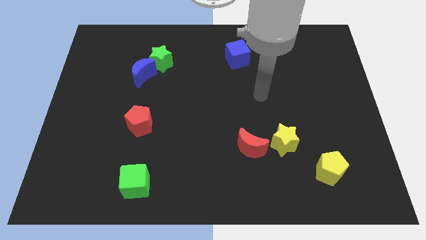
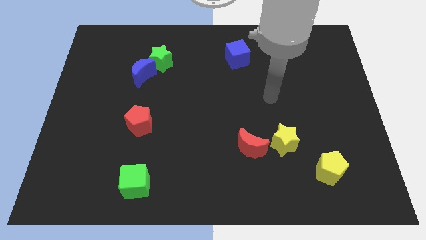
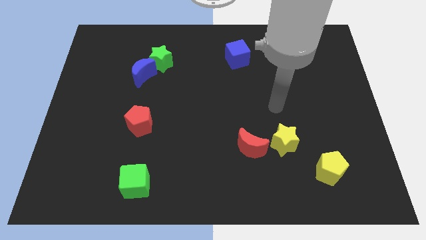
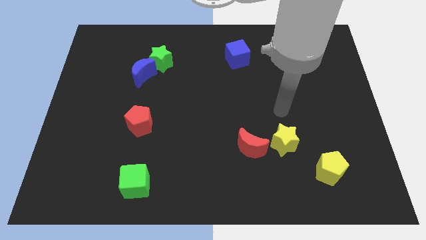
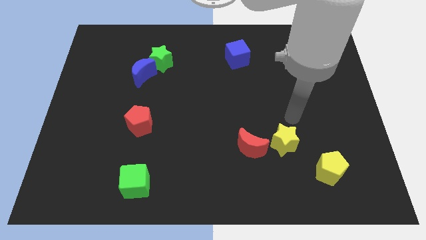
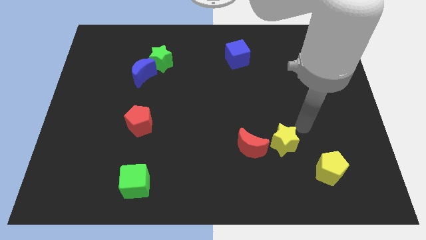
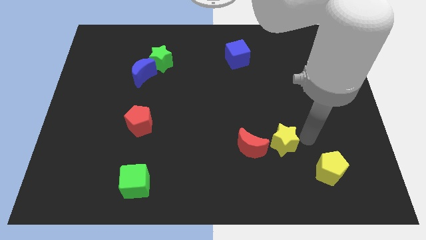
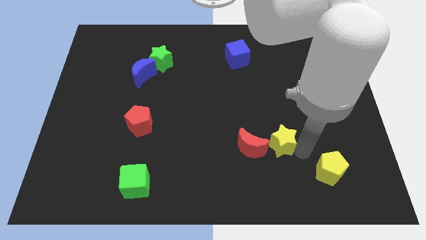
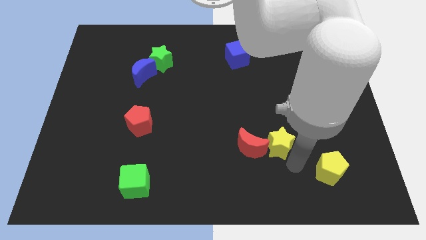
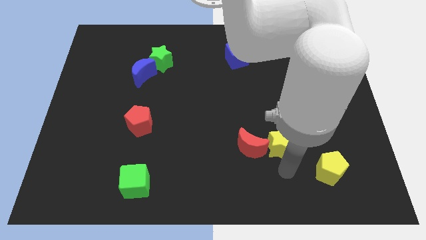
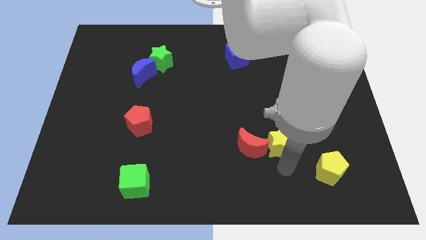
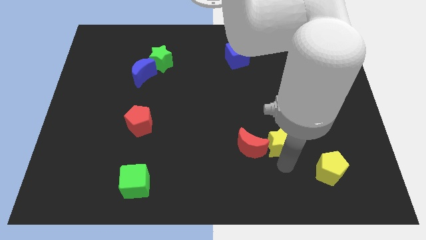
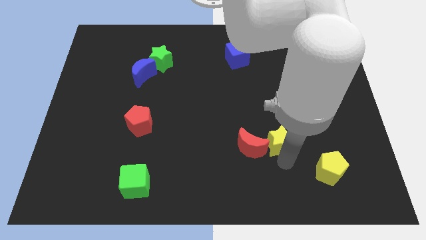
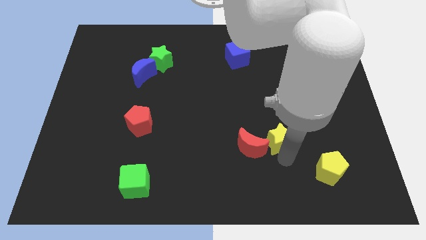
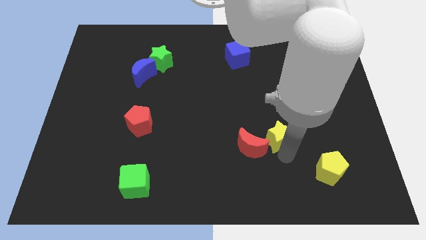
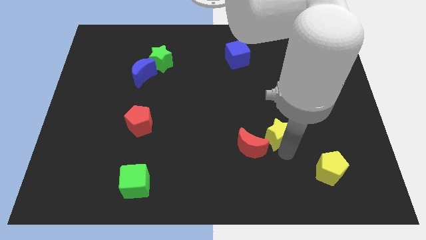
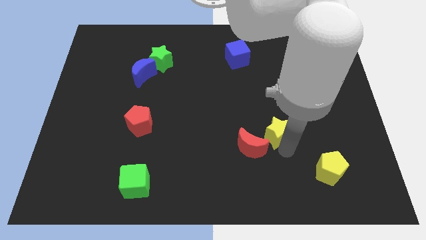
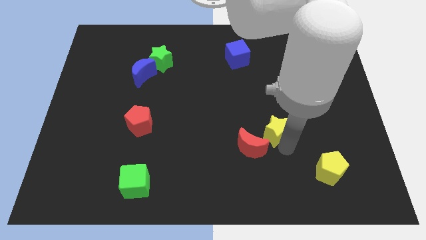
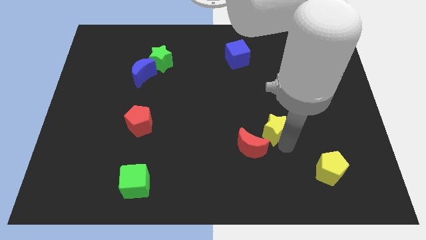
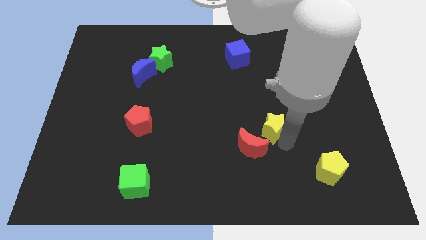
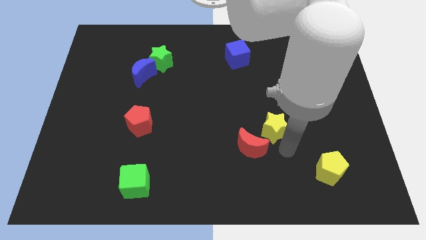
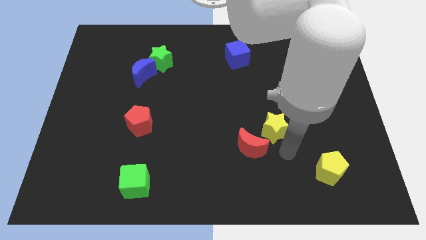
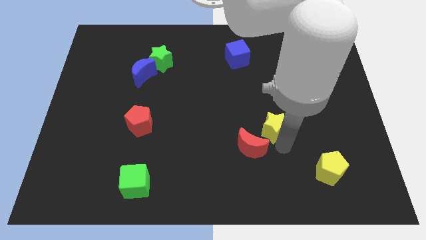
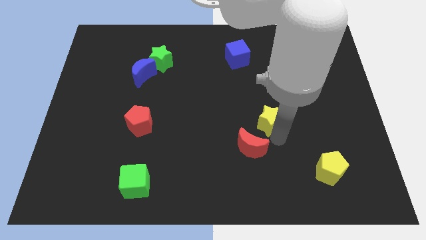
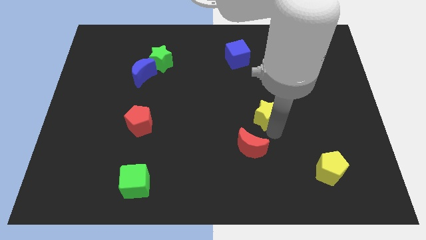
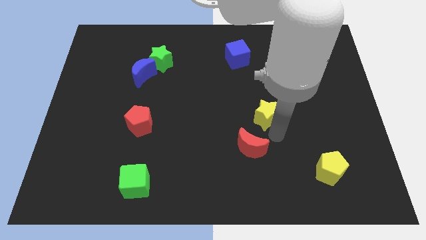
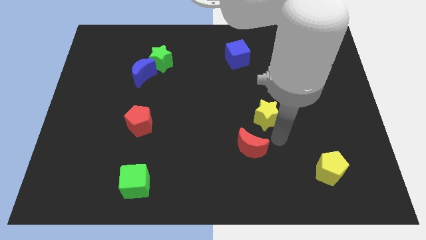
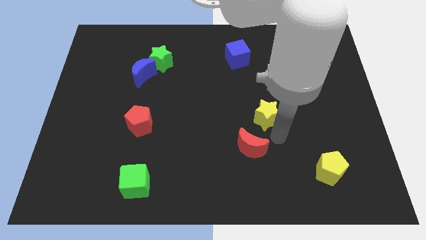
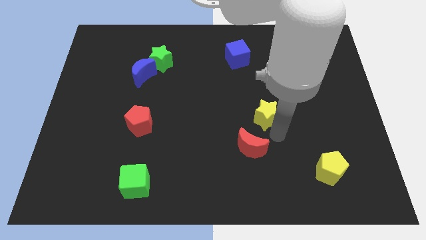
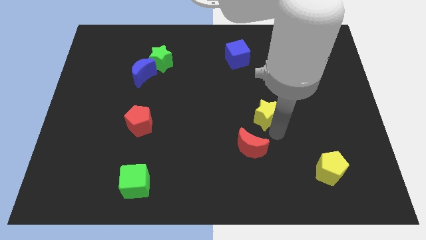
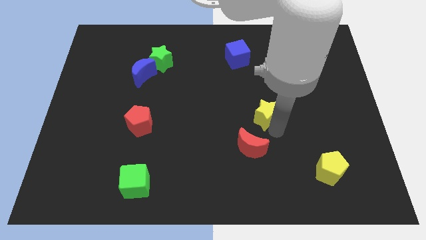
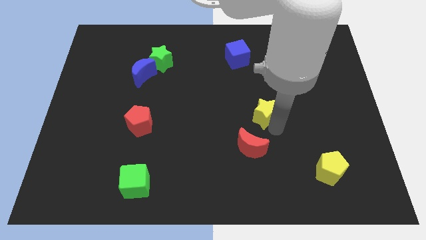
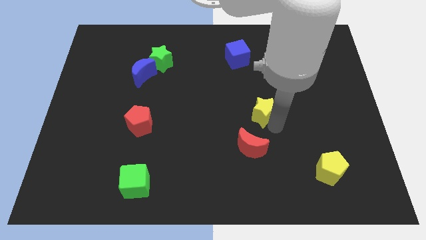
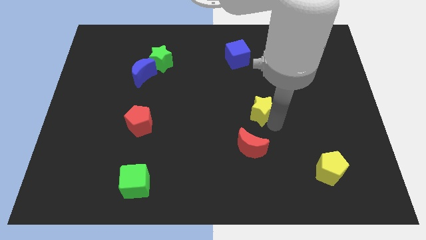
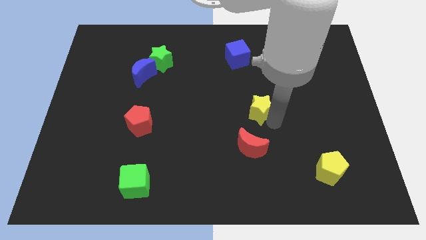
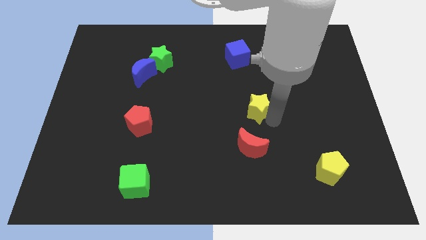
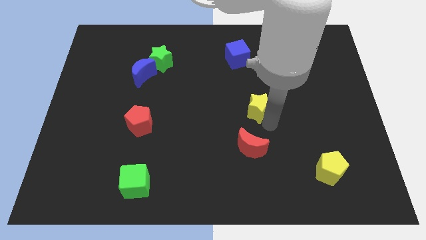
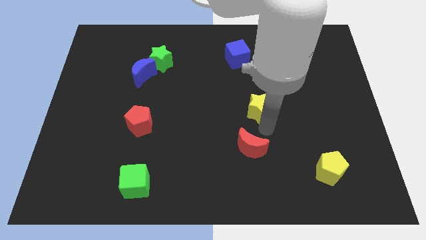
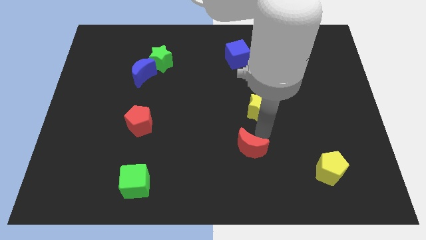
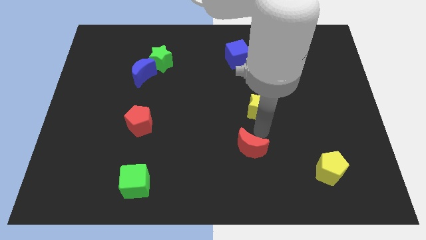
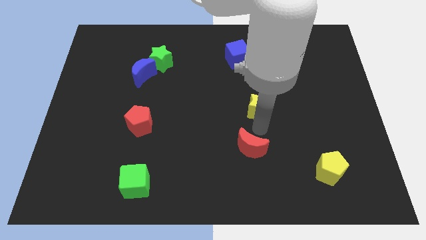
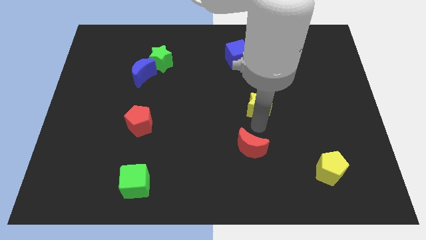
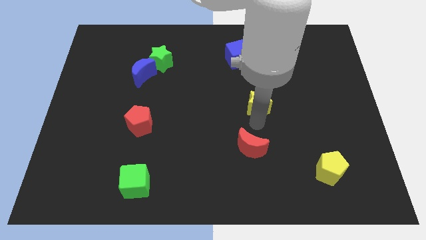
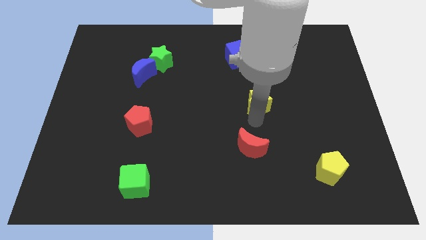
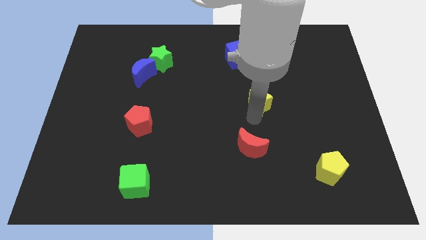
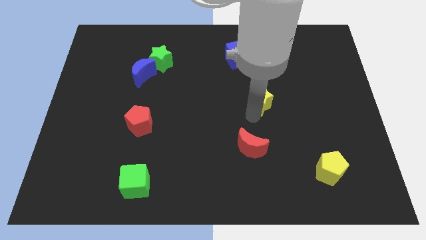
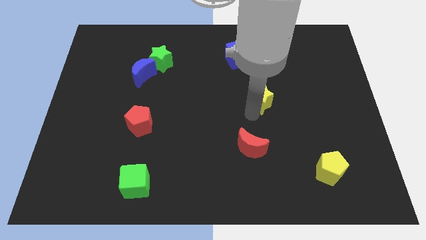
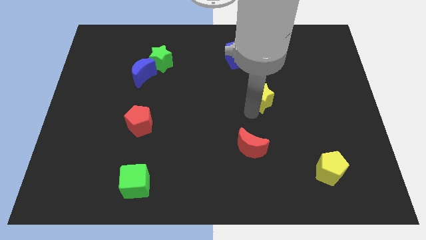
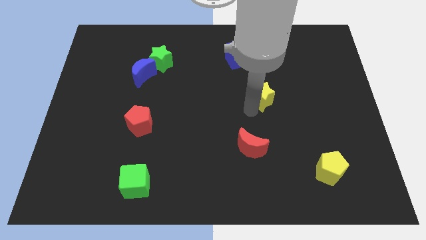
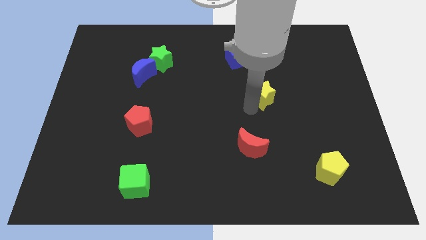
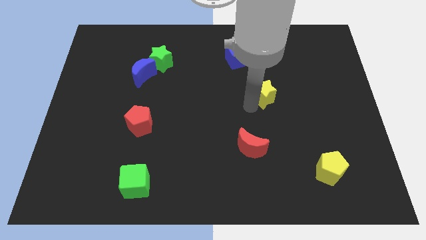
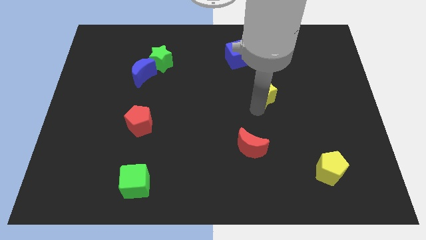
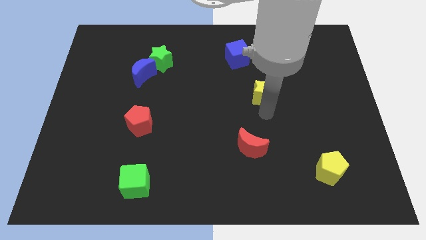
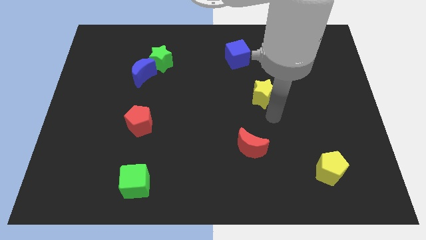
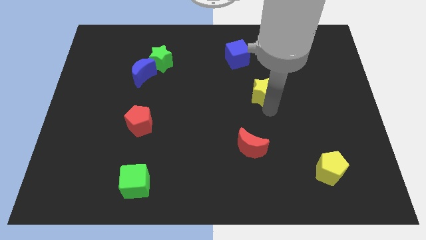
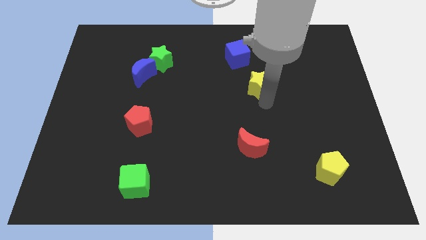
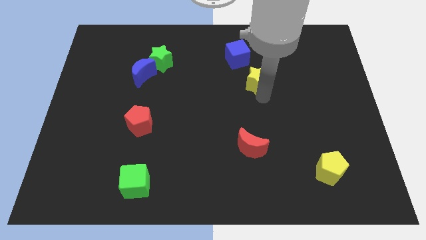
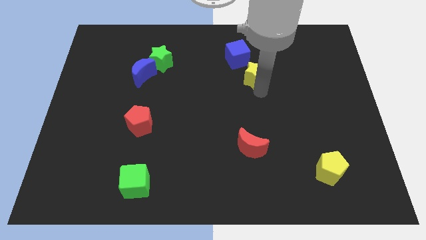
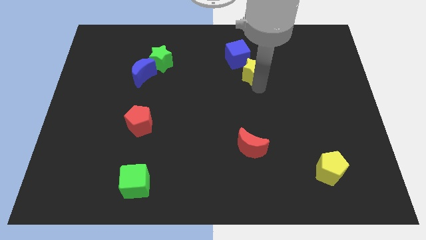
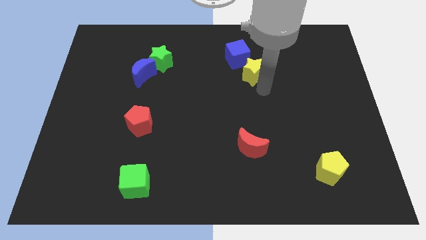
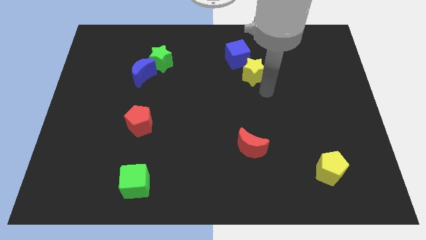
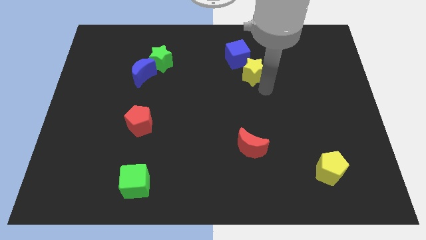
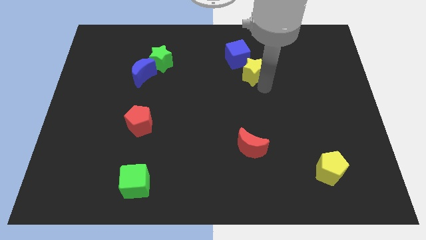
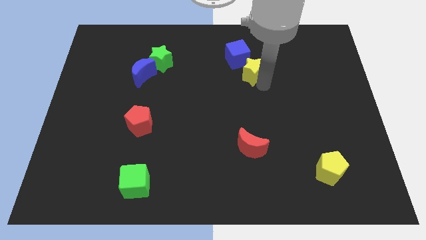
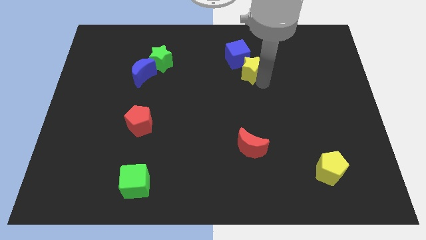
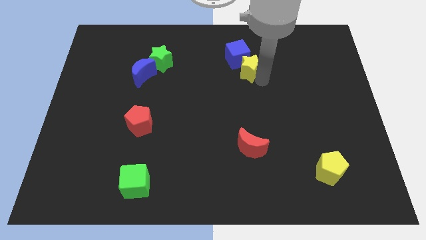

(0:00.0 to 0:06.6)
move the yellow star close to the blue cube

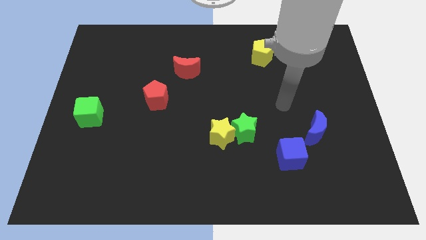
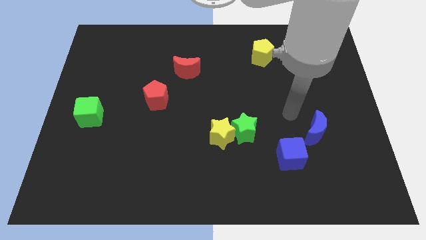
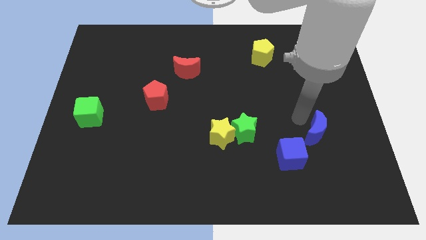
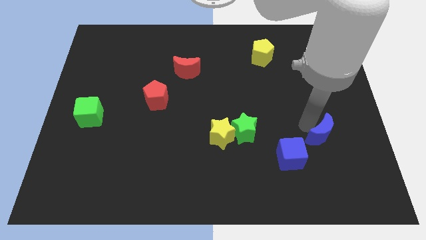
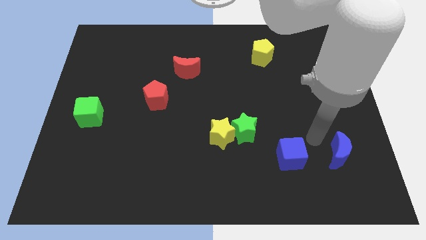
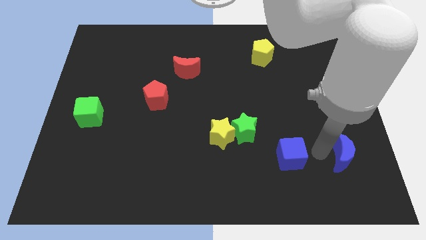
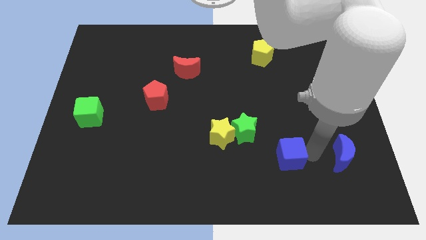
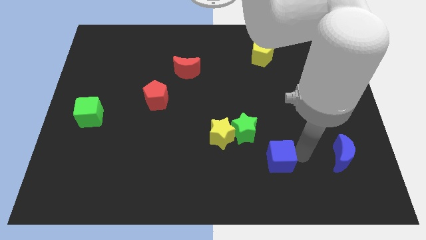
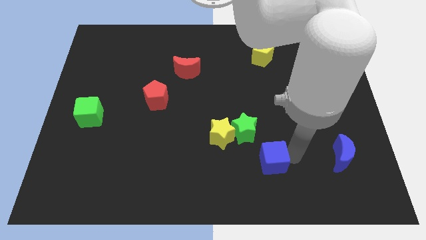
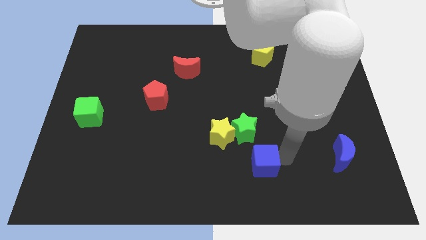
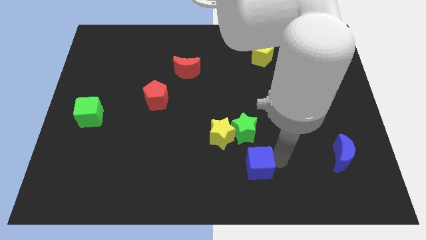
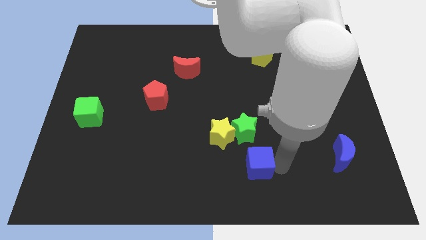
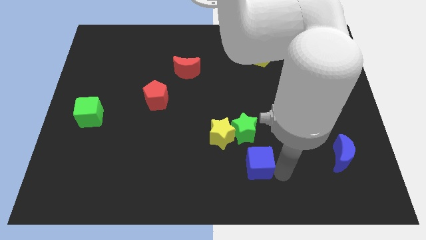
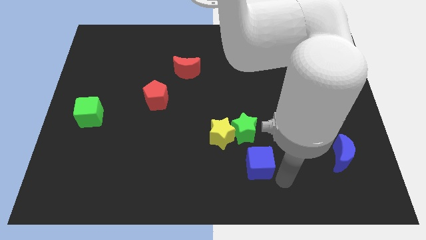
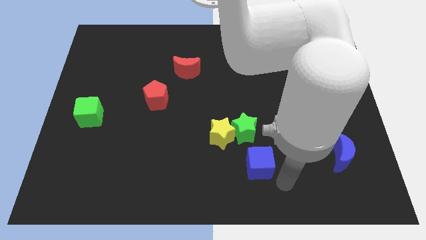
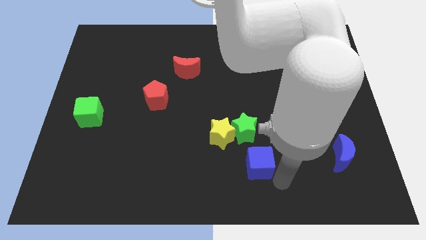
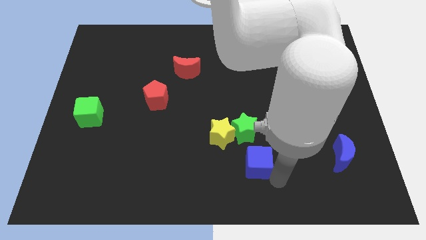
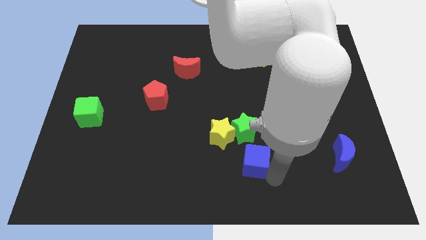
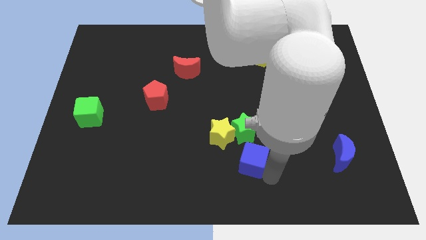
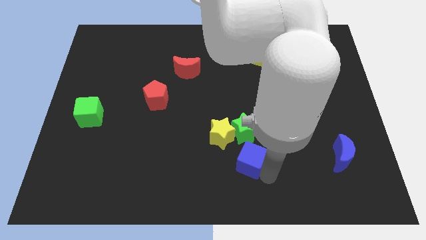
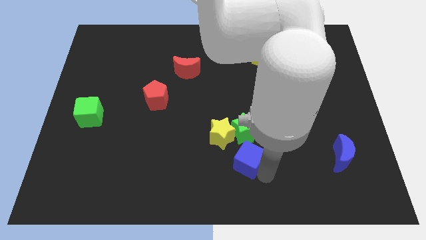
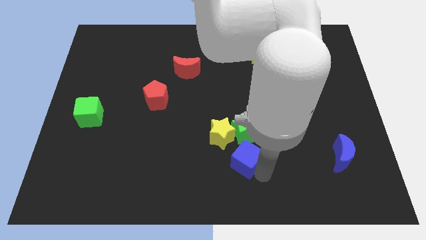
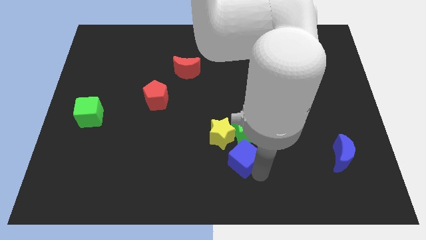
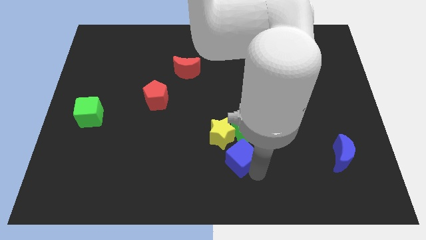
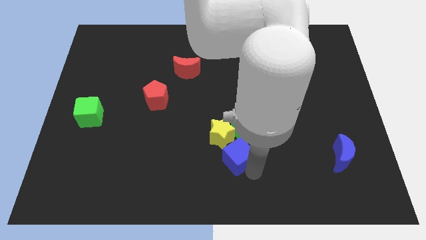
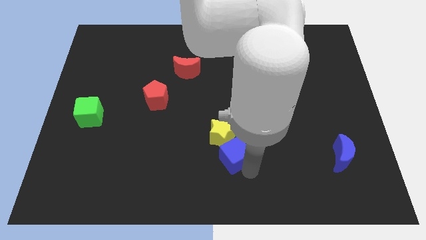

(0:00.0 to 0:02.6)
move the blue cube close to the yellow star
